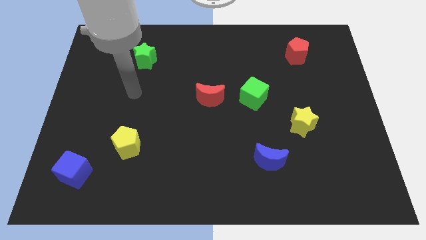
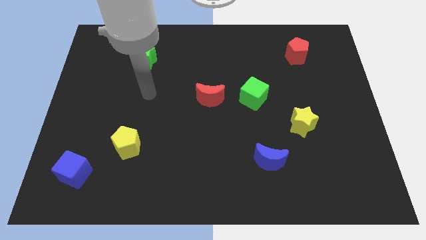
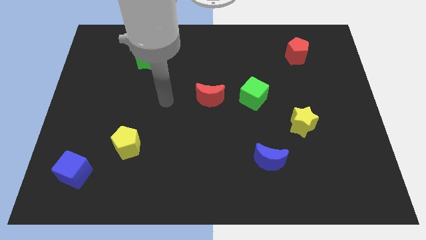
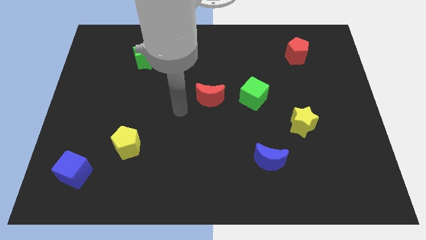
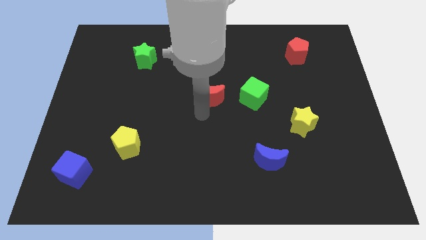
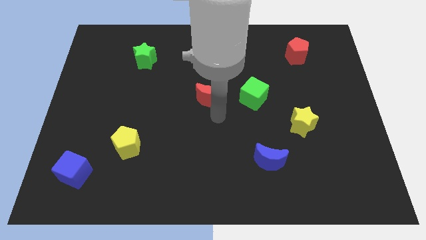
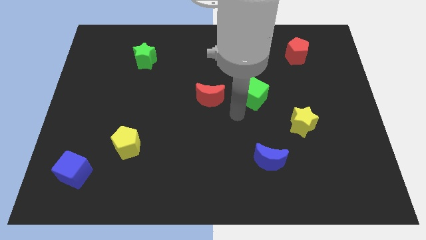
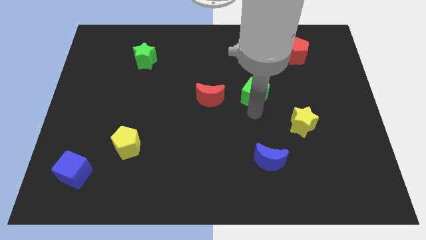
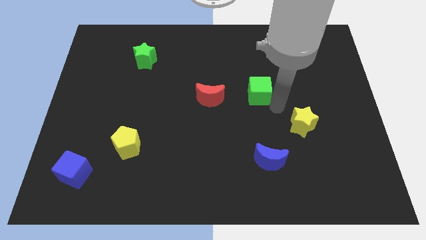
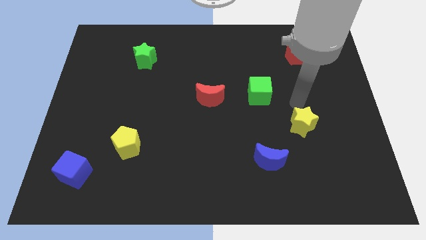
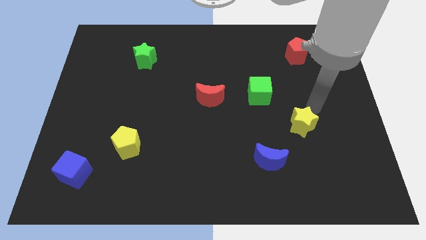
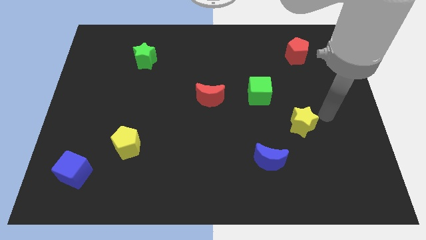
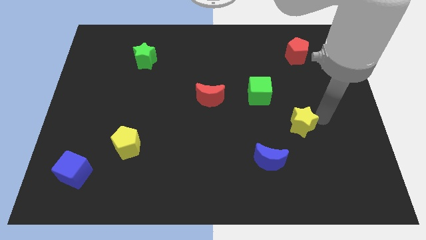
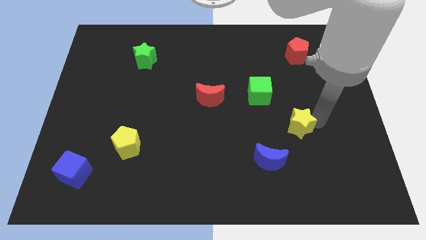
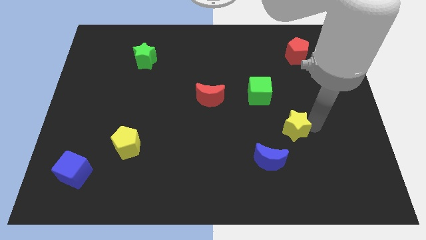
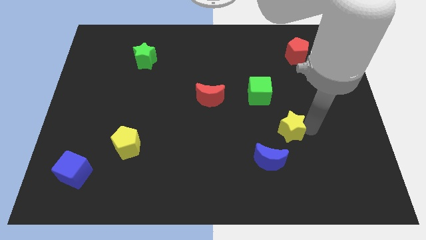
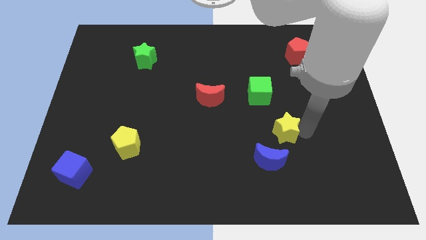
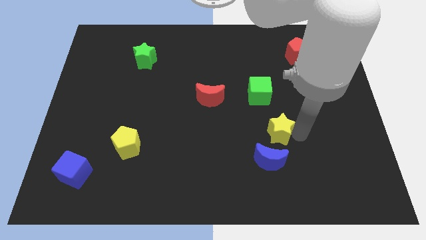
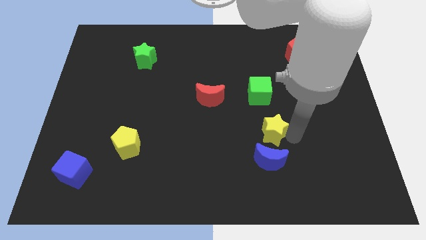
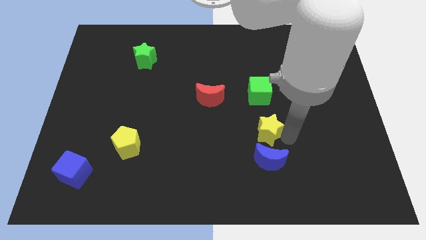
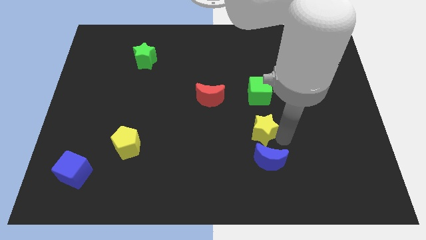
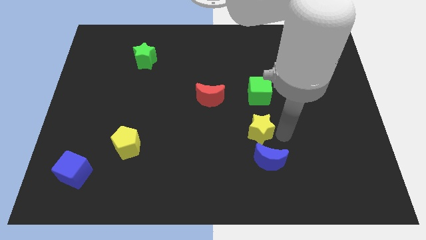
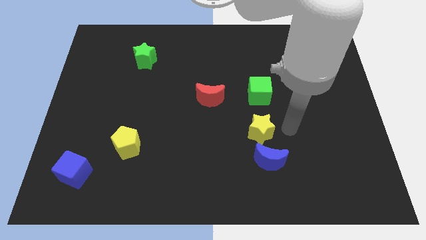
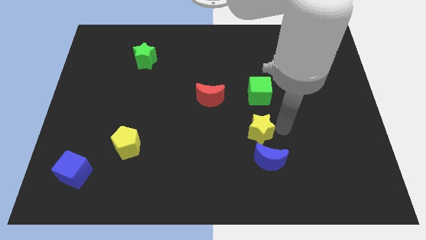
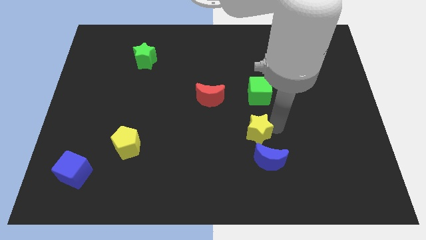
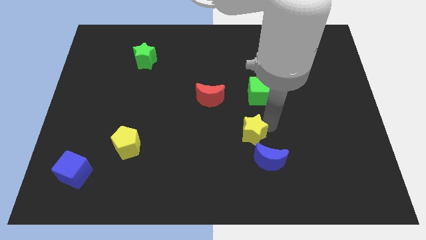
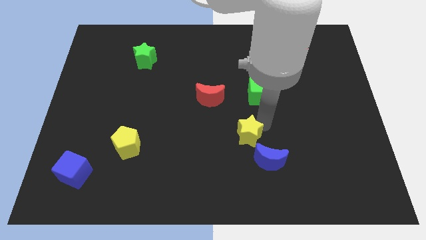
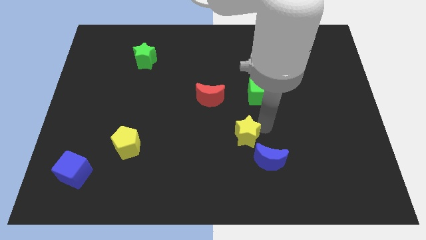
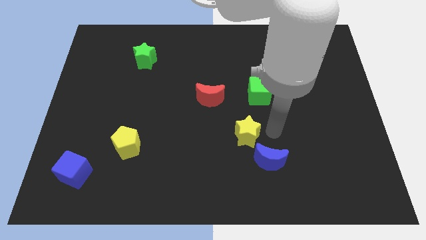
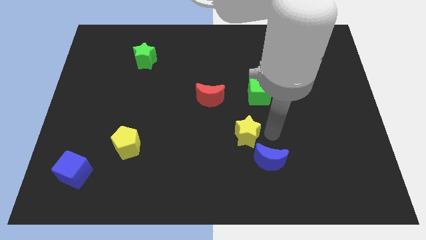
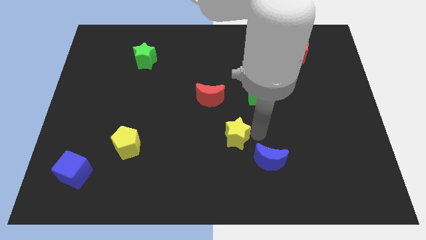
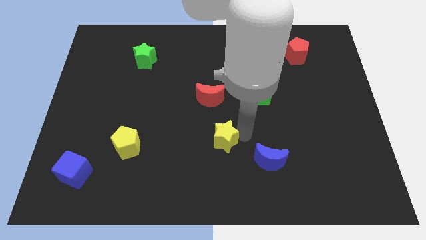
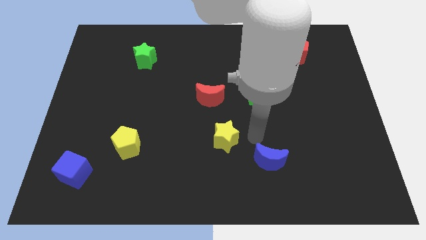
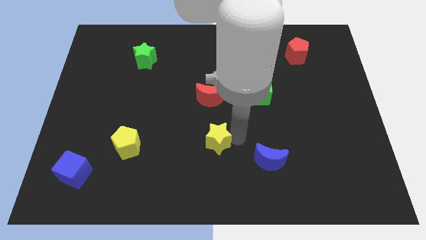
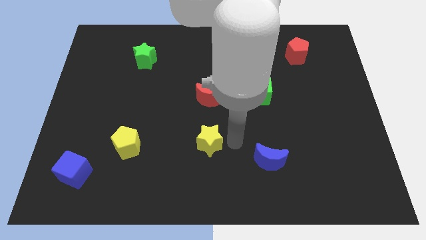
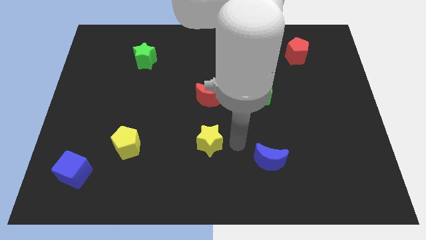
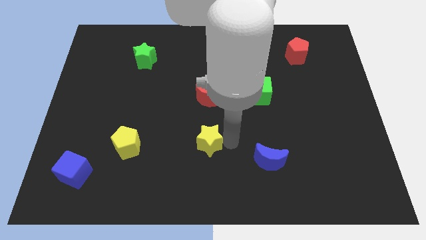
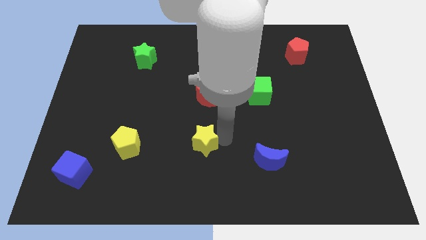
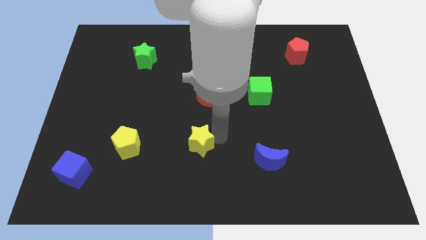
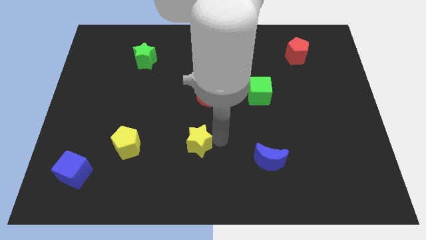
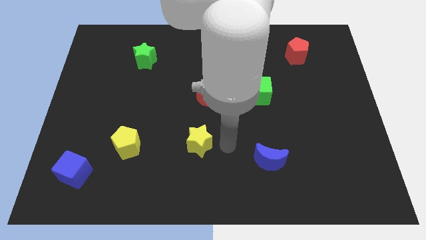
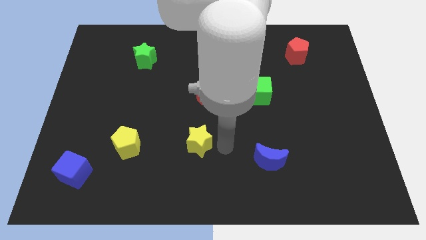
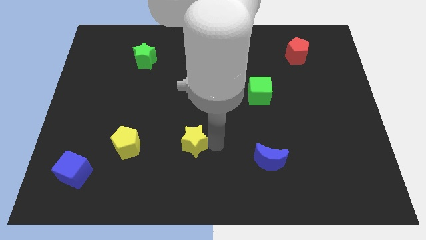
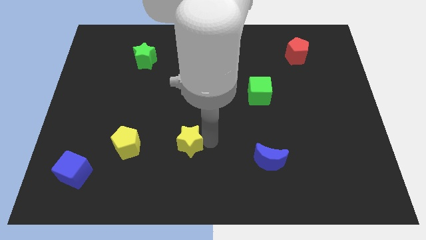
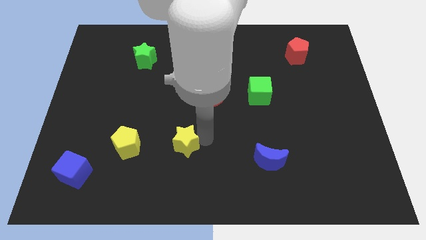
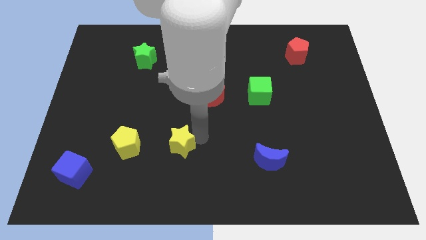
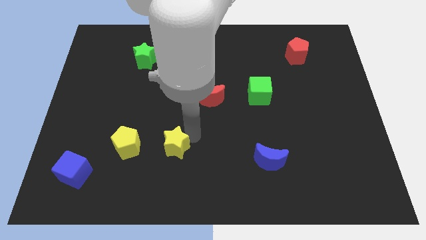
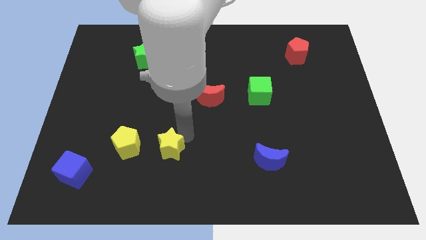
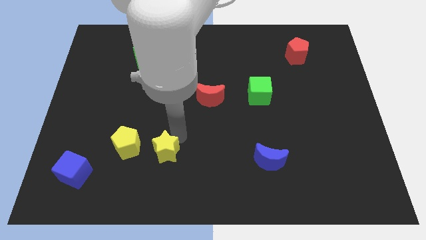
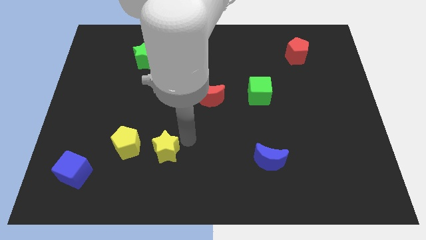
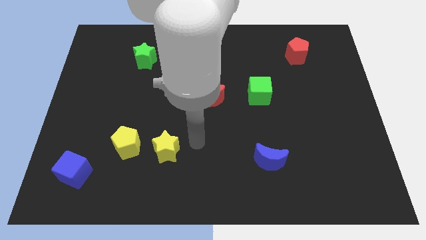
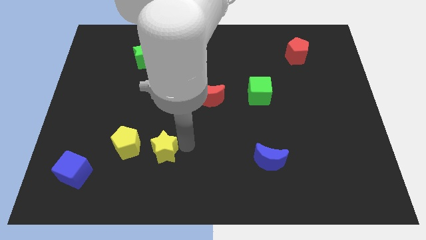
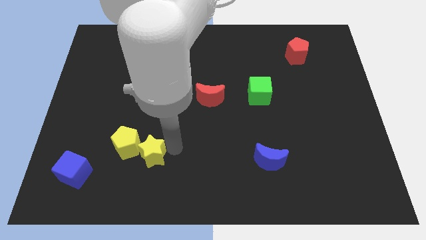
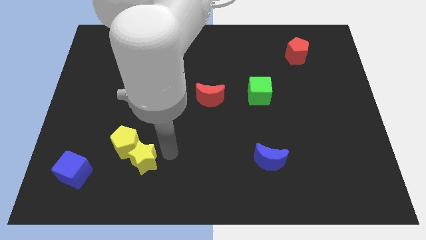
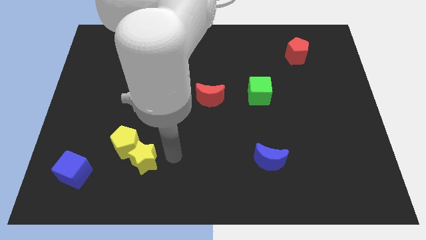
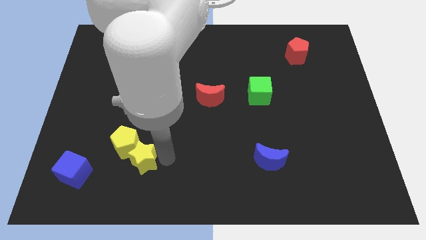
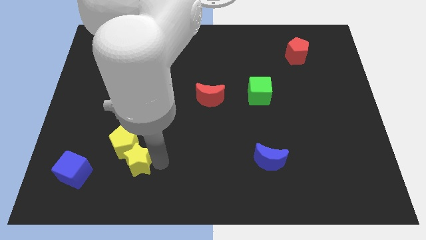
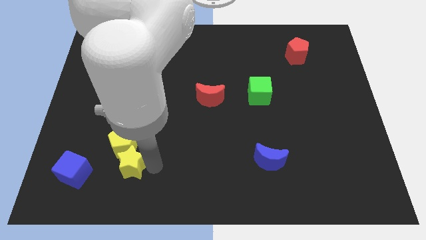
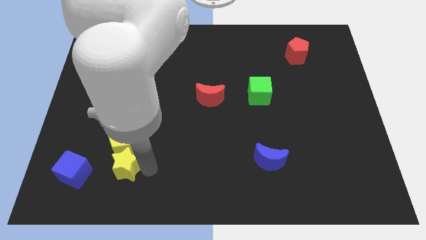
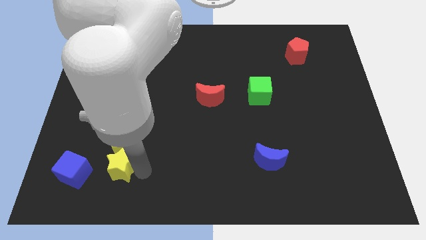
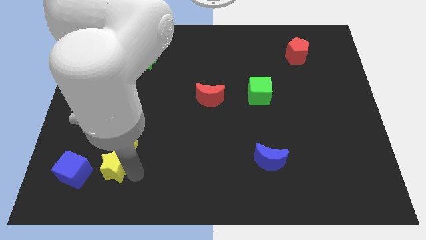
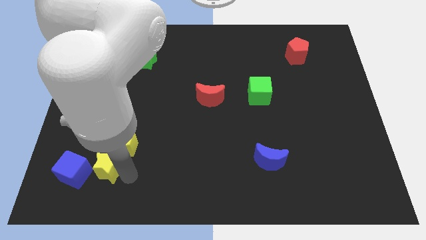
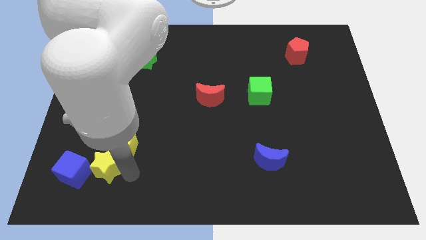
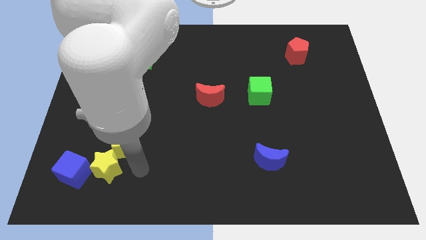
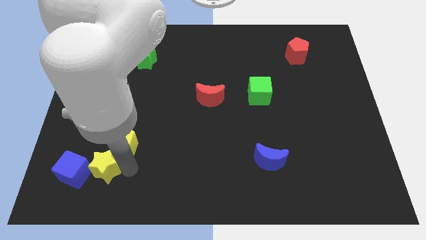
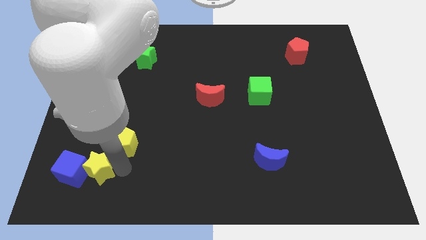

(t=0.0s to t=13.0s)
slide the yellow star next to the blue cube
